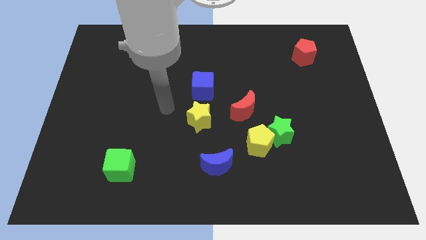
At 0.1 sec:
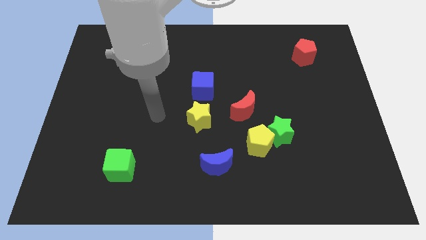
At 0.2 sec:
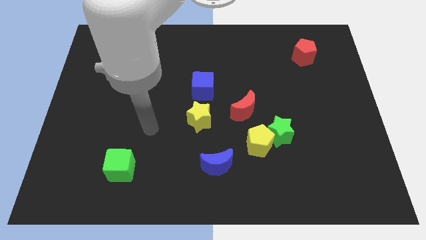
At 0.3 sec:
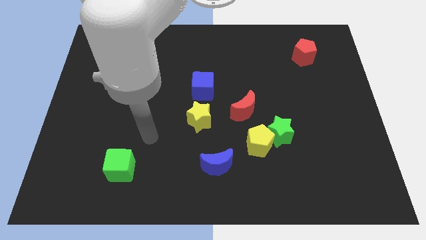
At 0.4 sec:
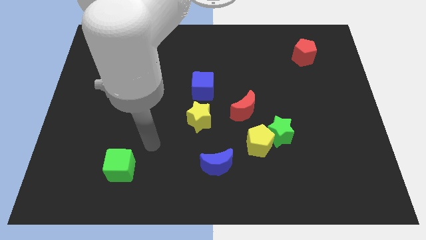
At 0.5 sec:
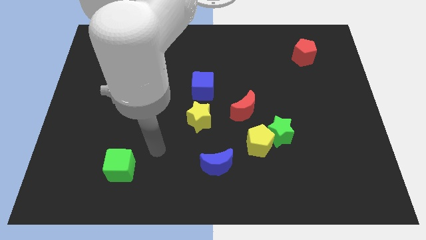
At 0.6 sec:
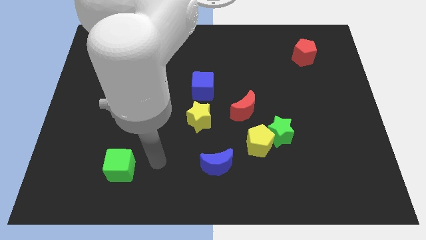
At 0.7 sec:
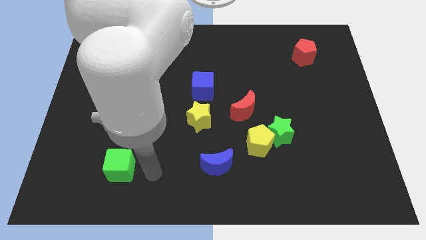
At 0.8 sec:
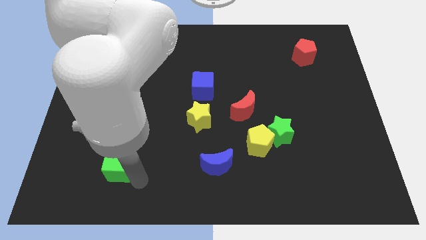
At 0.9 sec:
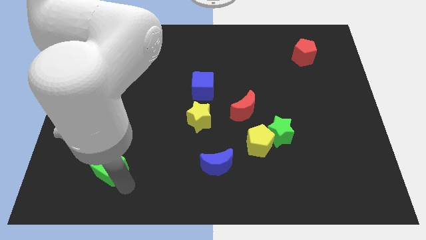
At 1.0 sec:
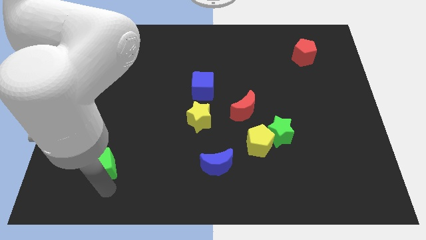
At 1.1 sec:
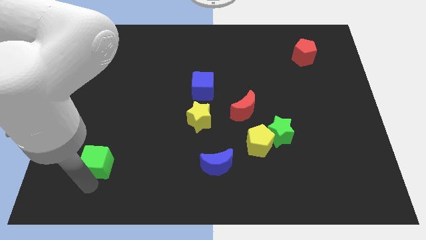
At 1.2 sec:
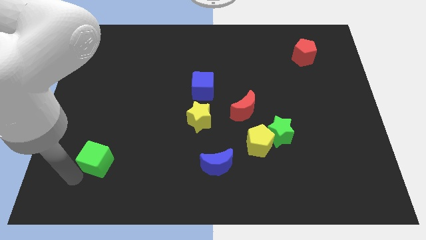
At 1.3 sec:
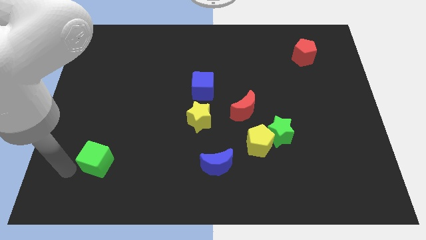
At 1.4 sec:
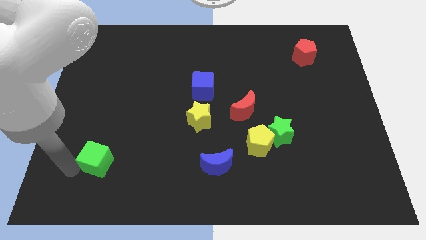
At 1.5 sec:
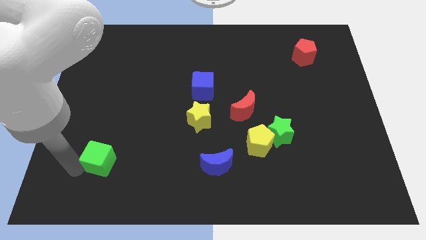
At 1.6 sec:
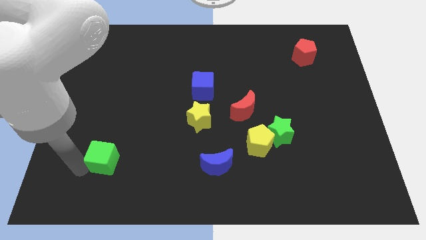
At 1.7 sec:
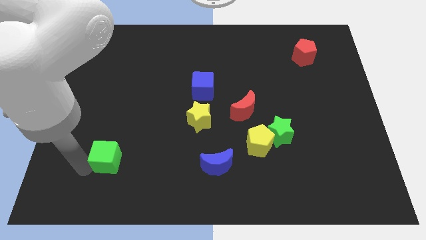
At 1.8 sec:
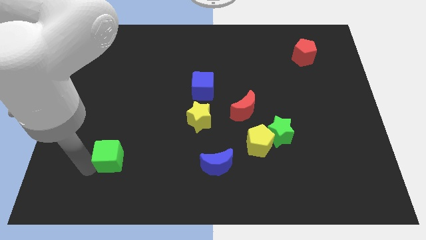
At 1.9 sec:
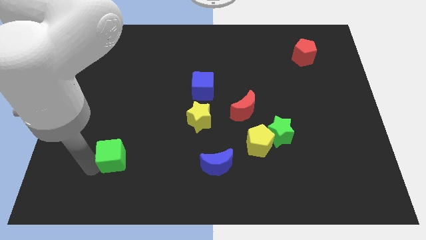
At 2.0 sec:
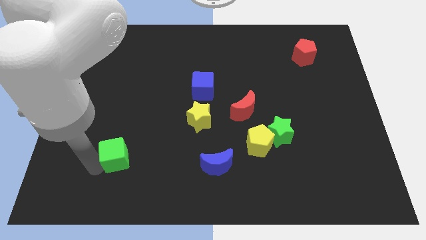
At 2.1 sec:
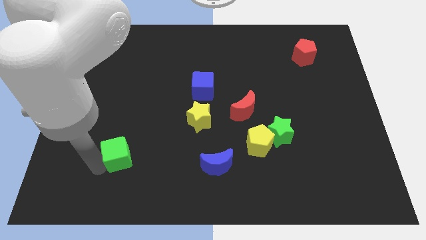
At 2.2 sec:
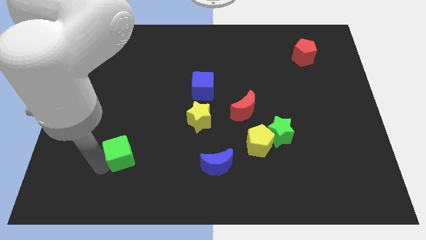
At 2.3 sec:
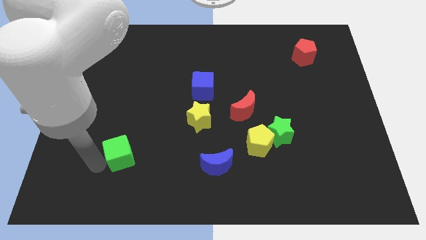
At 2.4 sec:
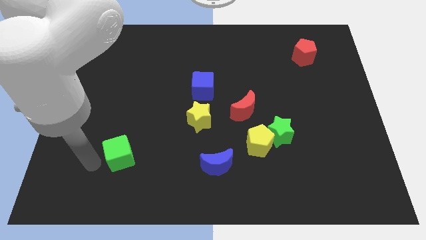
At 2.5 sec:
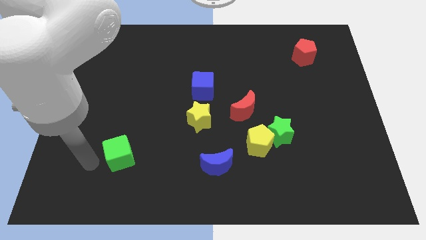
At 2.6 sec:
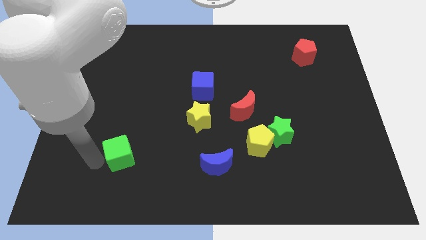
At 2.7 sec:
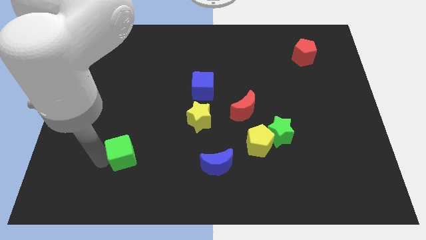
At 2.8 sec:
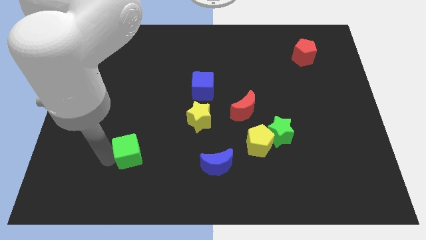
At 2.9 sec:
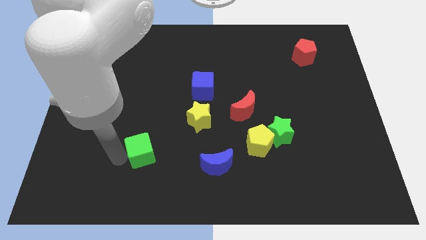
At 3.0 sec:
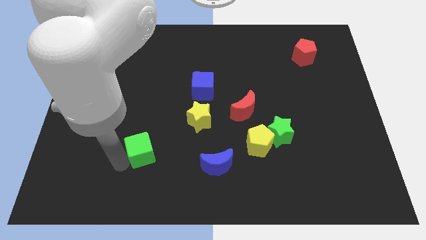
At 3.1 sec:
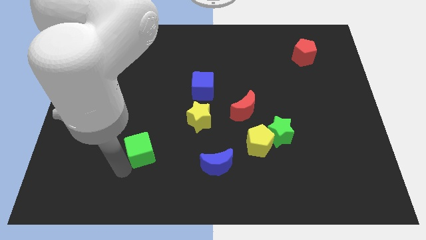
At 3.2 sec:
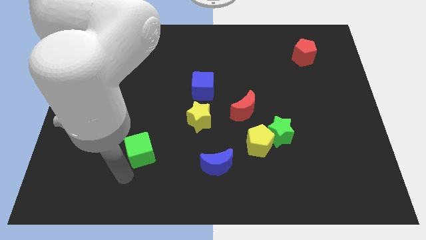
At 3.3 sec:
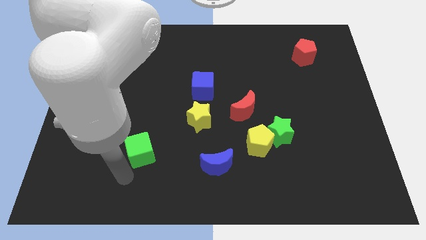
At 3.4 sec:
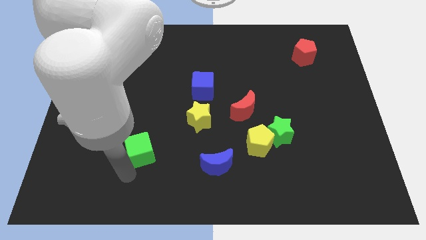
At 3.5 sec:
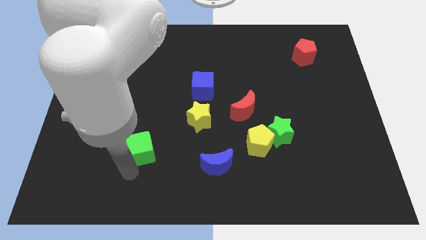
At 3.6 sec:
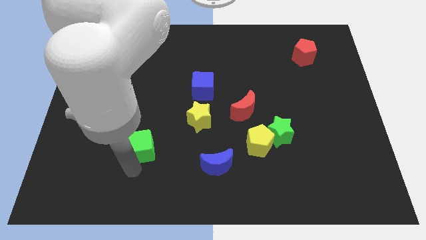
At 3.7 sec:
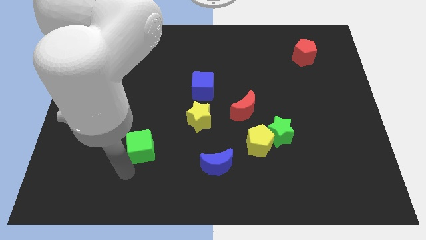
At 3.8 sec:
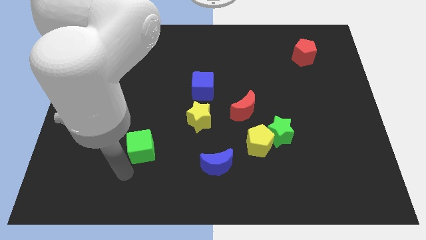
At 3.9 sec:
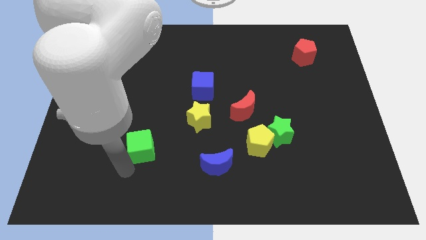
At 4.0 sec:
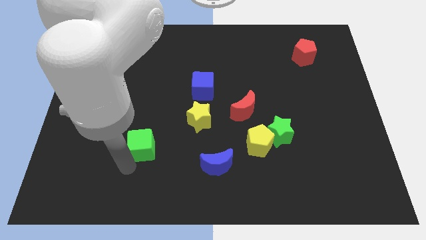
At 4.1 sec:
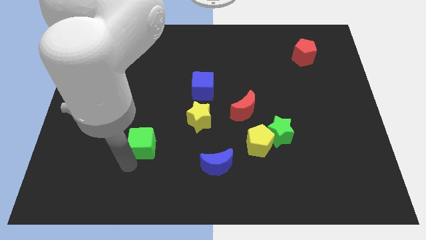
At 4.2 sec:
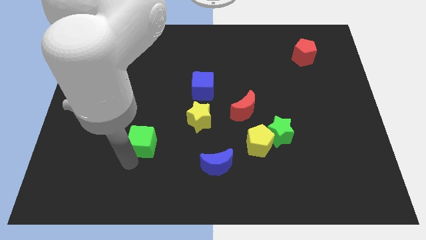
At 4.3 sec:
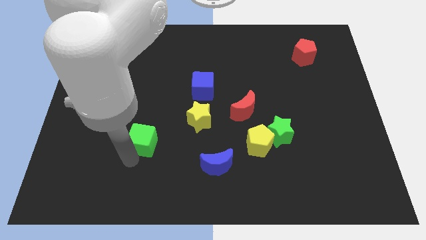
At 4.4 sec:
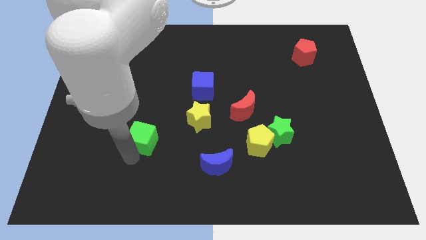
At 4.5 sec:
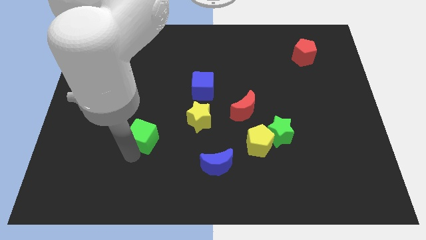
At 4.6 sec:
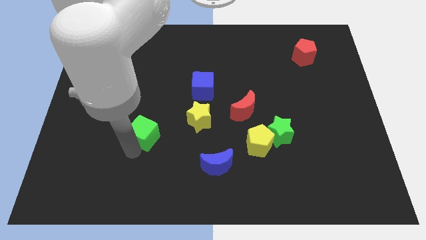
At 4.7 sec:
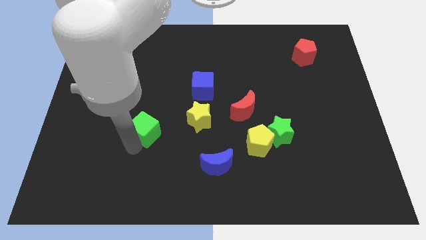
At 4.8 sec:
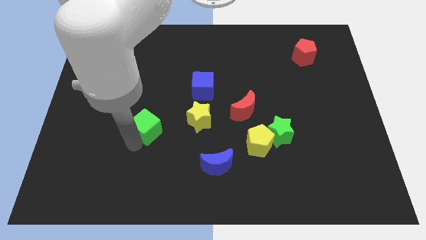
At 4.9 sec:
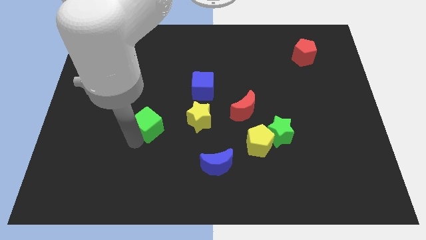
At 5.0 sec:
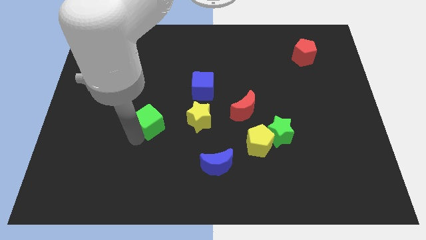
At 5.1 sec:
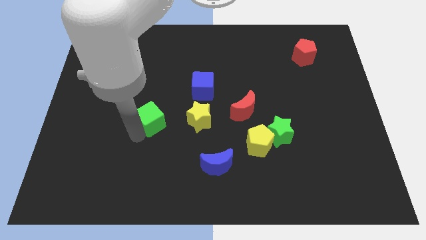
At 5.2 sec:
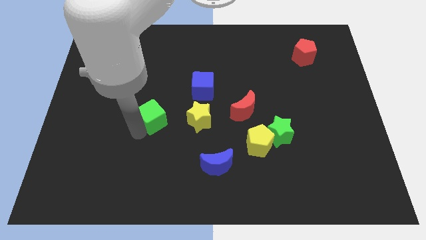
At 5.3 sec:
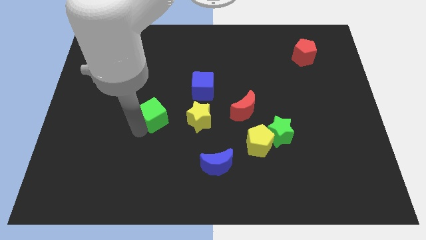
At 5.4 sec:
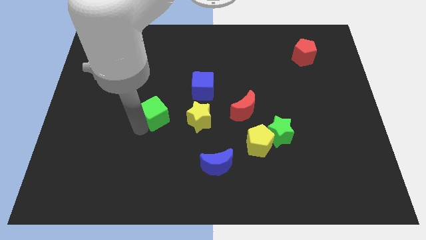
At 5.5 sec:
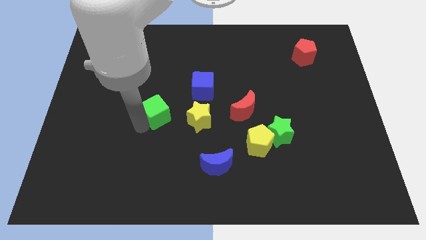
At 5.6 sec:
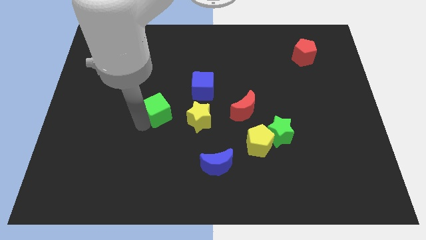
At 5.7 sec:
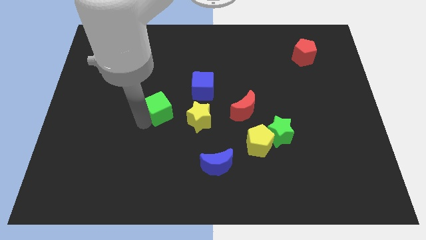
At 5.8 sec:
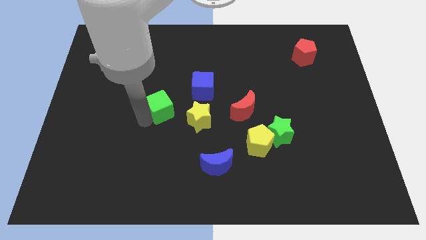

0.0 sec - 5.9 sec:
put the green cube to the center

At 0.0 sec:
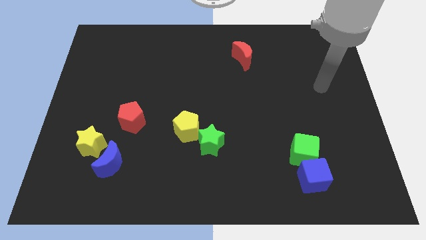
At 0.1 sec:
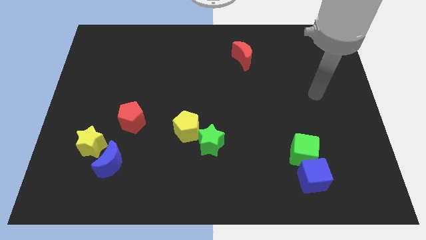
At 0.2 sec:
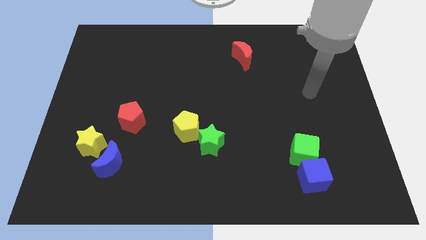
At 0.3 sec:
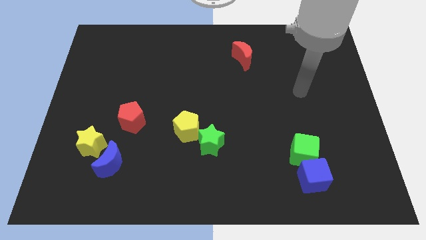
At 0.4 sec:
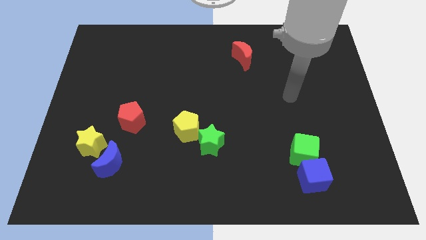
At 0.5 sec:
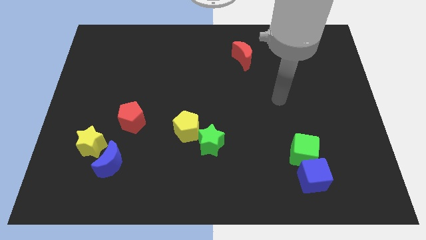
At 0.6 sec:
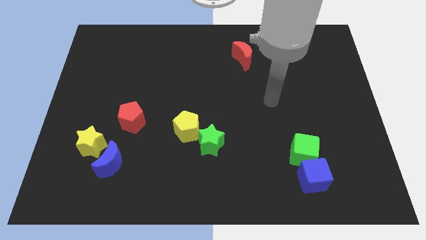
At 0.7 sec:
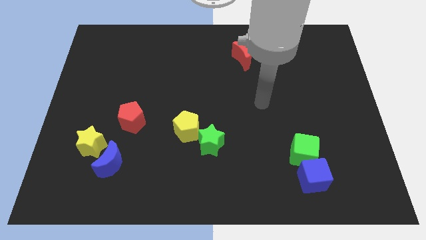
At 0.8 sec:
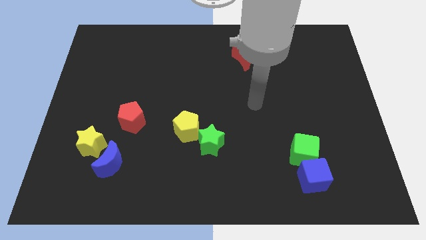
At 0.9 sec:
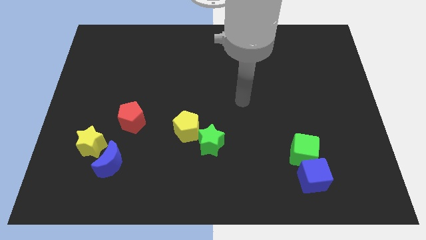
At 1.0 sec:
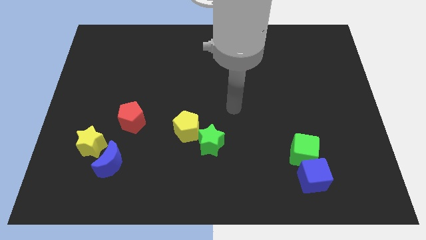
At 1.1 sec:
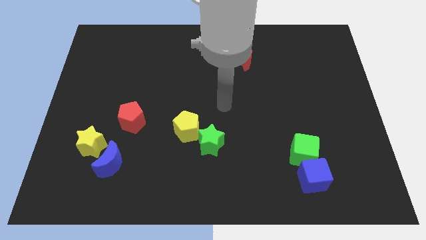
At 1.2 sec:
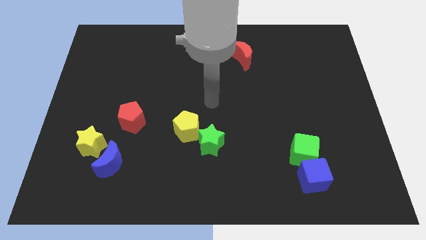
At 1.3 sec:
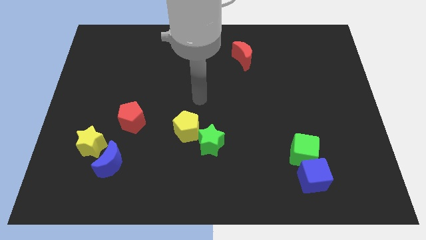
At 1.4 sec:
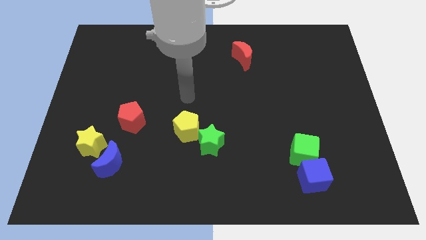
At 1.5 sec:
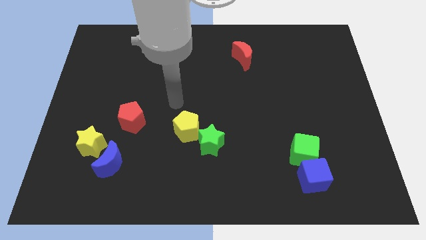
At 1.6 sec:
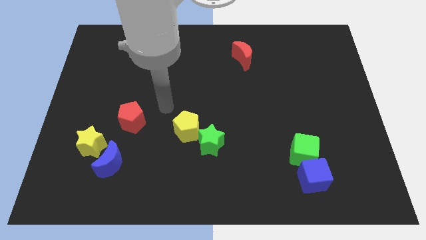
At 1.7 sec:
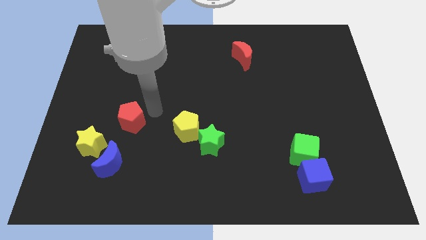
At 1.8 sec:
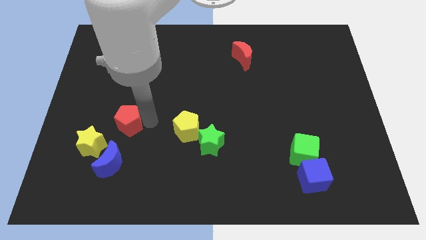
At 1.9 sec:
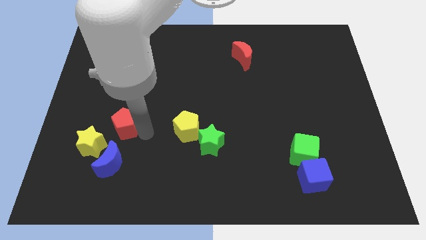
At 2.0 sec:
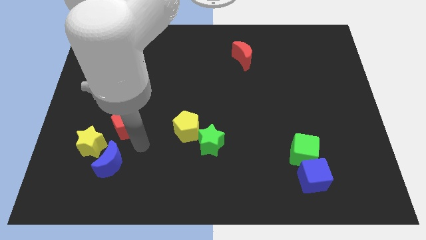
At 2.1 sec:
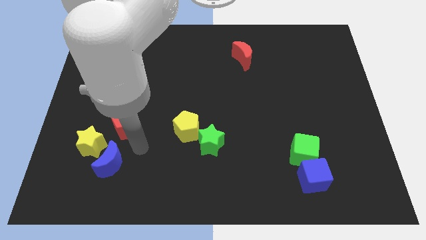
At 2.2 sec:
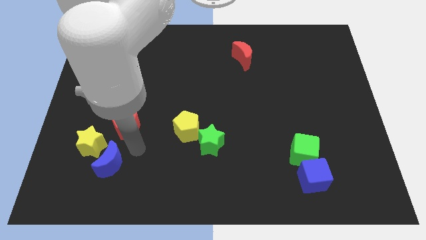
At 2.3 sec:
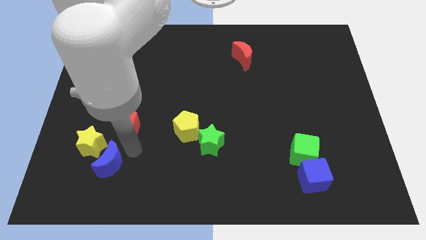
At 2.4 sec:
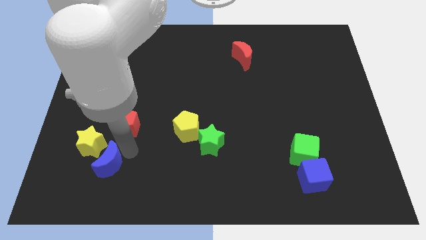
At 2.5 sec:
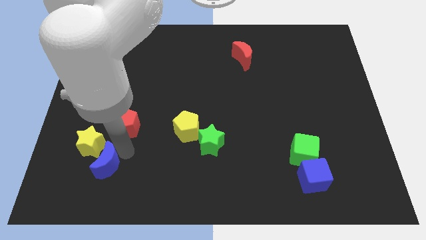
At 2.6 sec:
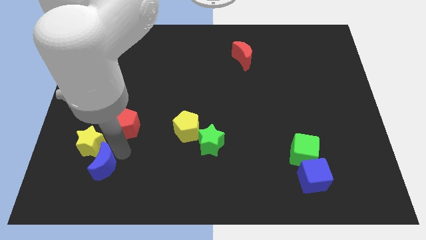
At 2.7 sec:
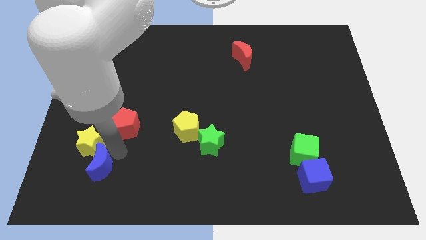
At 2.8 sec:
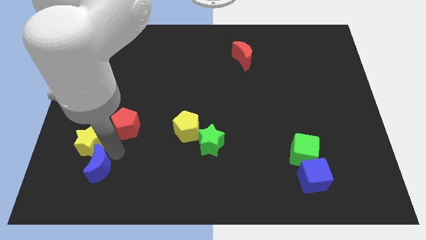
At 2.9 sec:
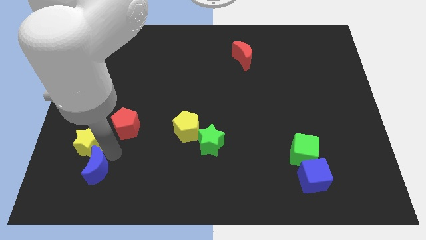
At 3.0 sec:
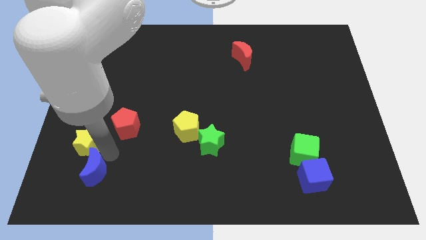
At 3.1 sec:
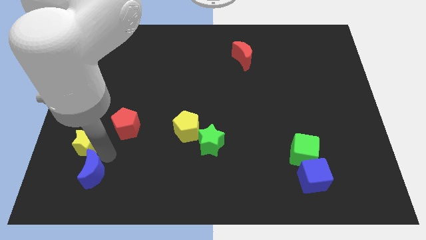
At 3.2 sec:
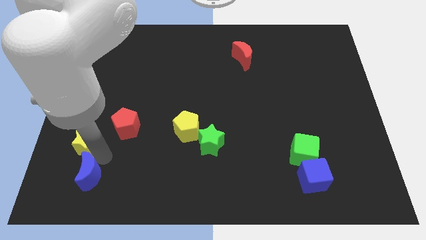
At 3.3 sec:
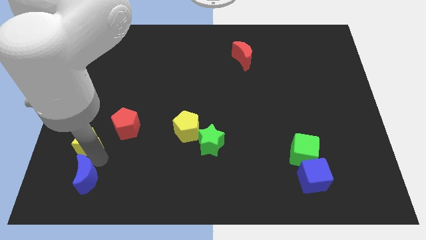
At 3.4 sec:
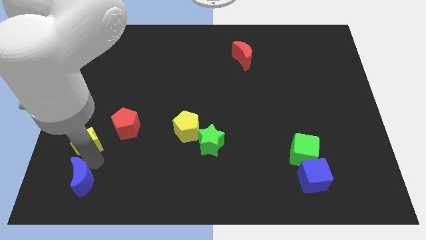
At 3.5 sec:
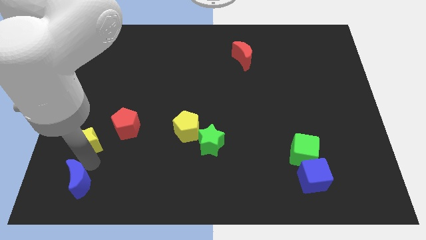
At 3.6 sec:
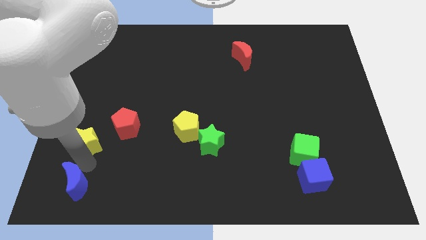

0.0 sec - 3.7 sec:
slide the blue moon to the lower left corner
